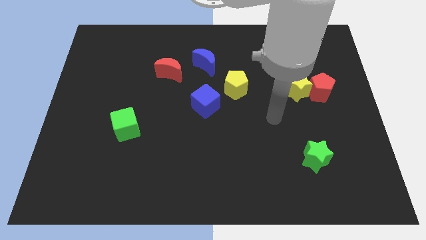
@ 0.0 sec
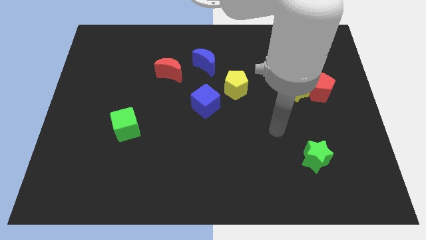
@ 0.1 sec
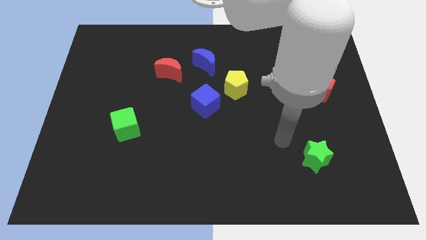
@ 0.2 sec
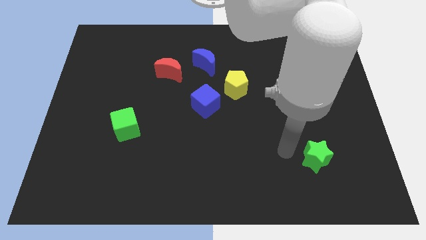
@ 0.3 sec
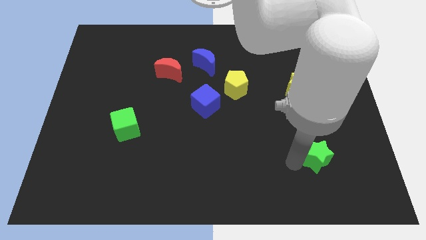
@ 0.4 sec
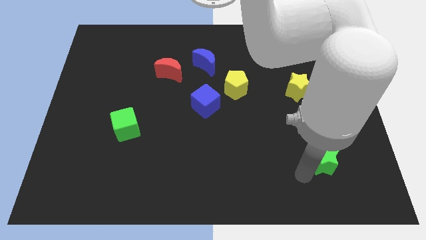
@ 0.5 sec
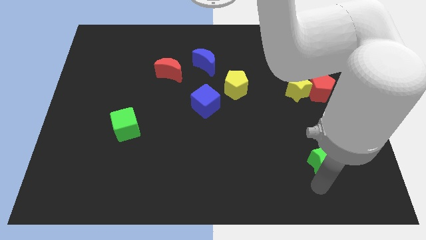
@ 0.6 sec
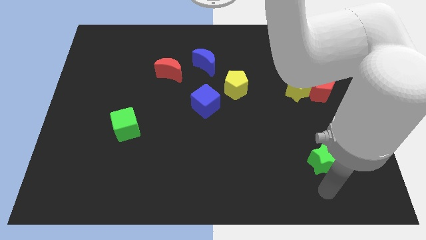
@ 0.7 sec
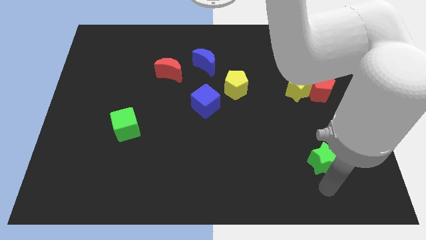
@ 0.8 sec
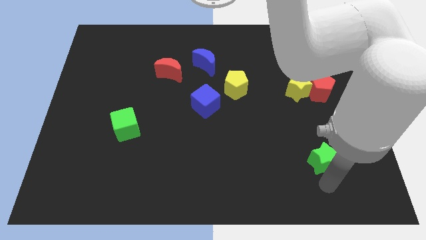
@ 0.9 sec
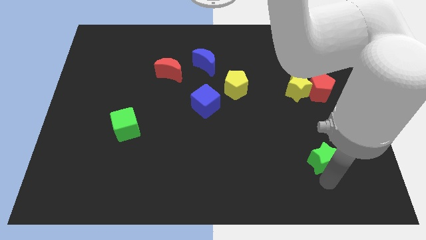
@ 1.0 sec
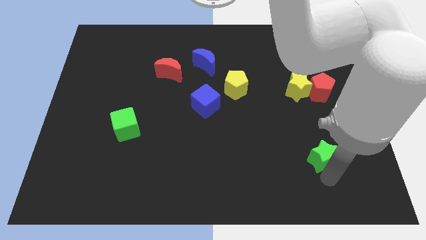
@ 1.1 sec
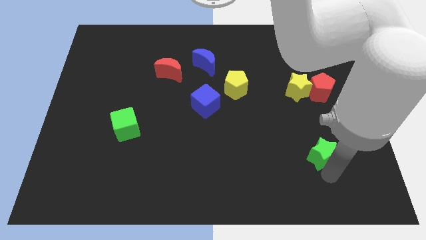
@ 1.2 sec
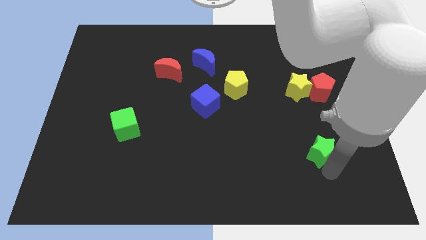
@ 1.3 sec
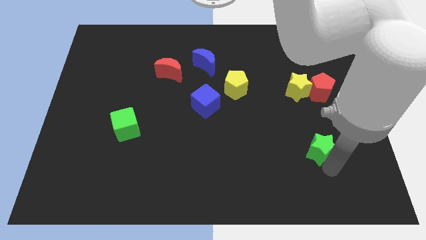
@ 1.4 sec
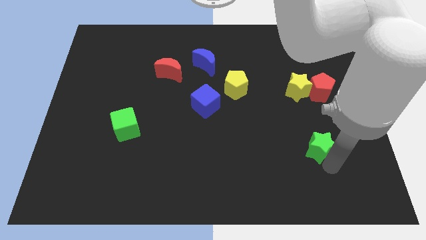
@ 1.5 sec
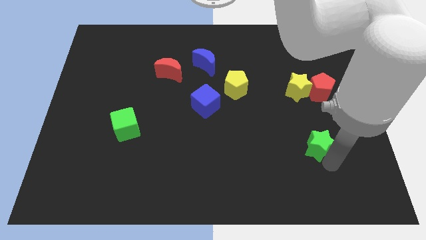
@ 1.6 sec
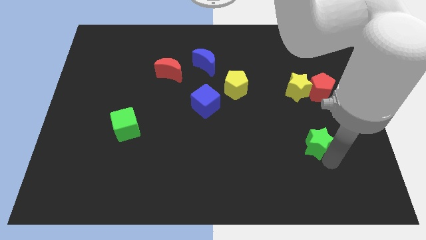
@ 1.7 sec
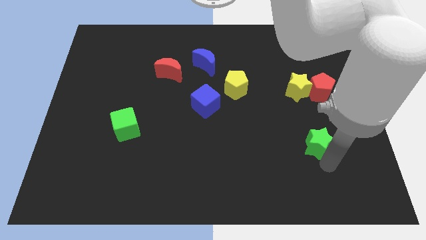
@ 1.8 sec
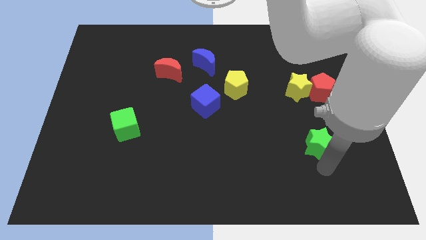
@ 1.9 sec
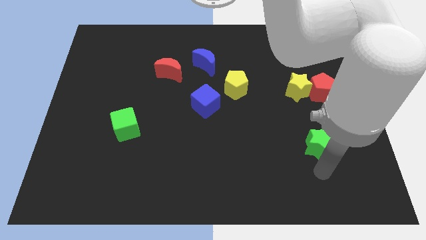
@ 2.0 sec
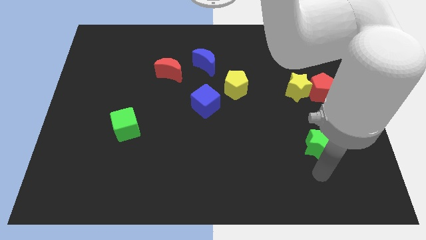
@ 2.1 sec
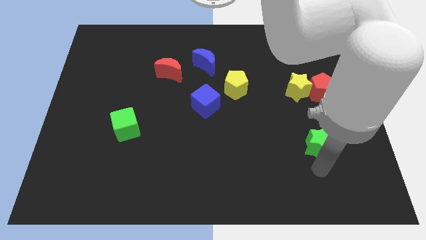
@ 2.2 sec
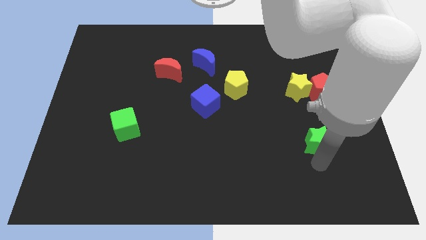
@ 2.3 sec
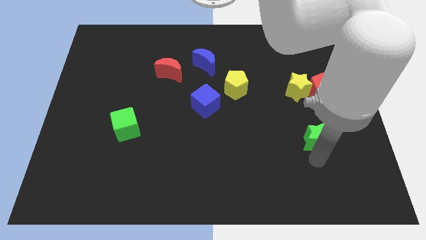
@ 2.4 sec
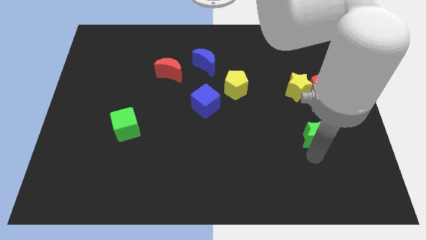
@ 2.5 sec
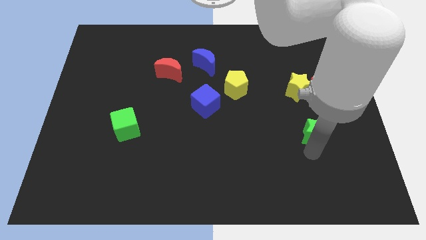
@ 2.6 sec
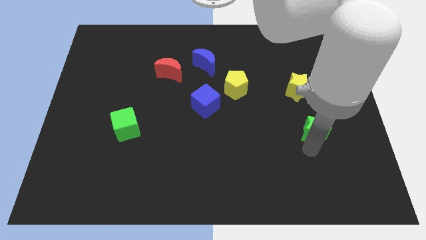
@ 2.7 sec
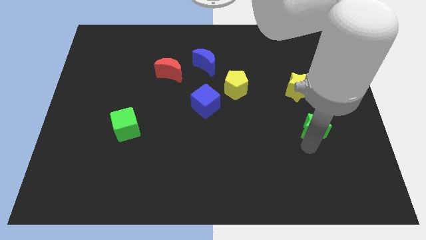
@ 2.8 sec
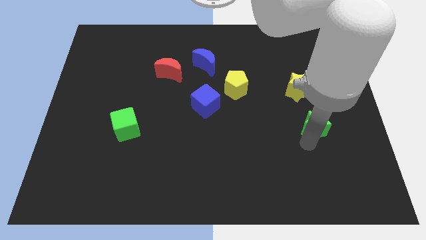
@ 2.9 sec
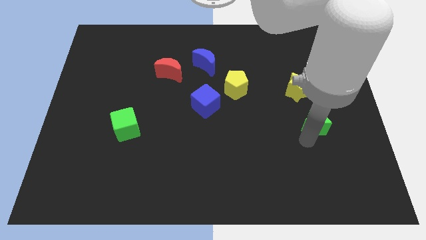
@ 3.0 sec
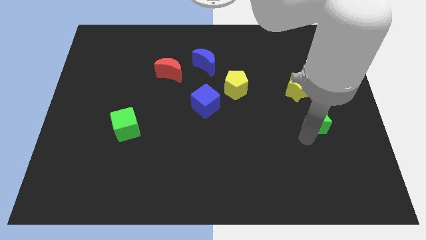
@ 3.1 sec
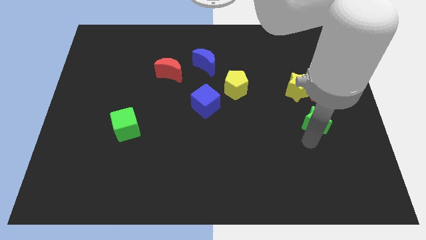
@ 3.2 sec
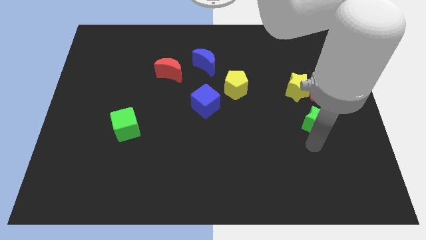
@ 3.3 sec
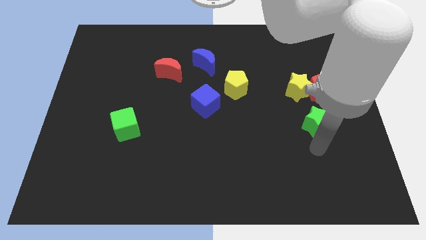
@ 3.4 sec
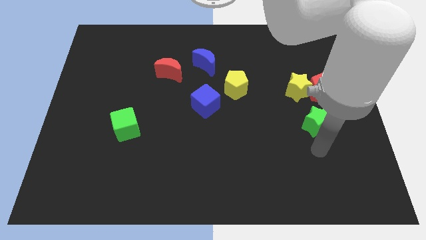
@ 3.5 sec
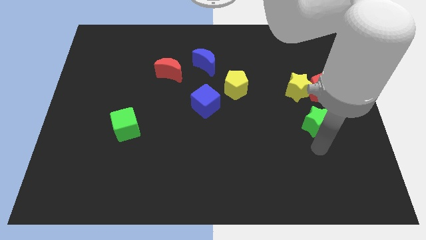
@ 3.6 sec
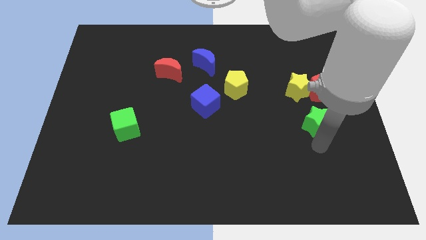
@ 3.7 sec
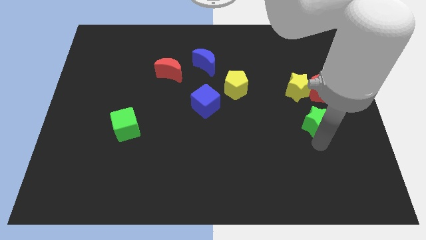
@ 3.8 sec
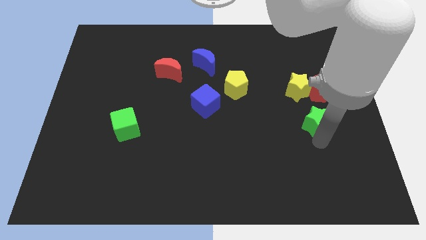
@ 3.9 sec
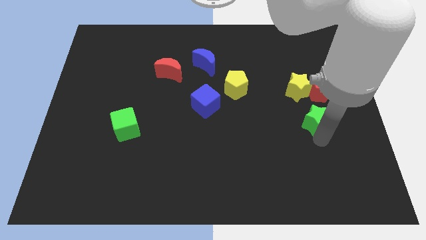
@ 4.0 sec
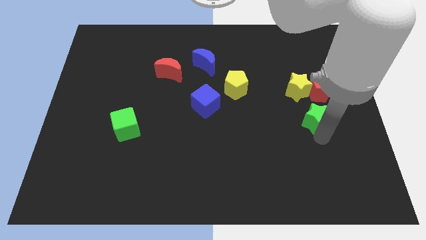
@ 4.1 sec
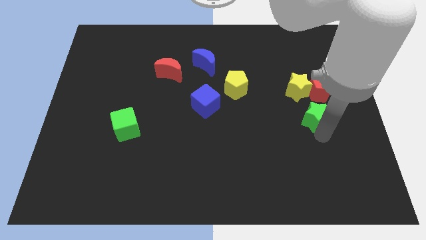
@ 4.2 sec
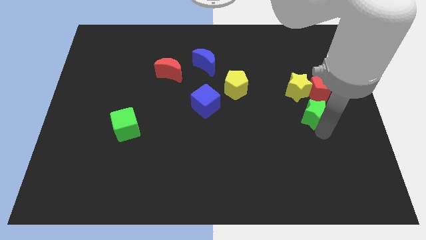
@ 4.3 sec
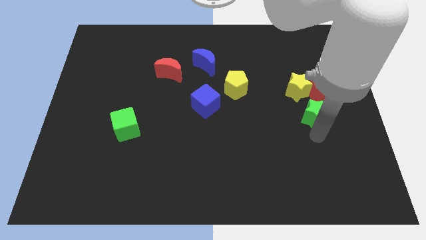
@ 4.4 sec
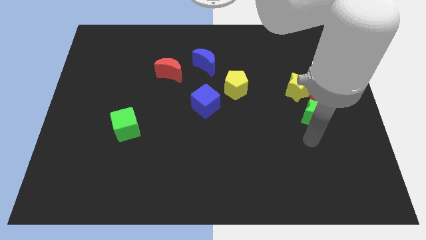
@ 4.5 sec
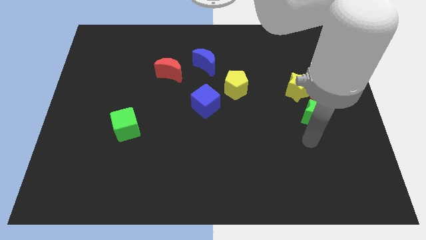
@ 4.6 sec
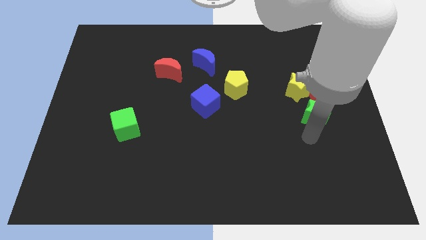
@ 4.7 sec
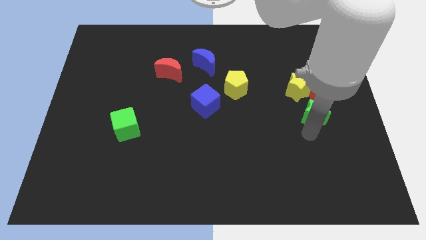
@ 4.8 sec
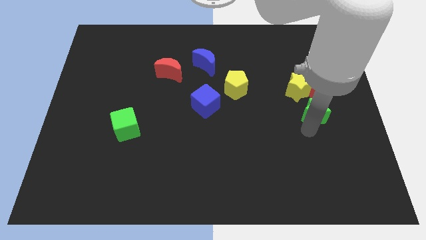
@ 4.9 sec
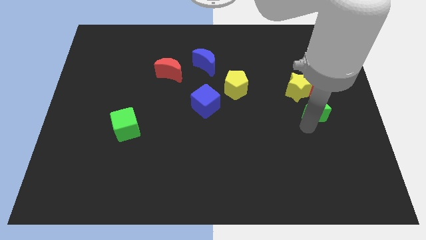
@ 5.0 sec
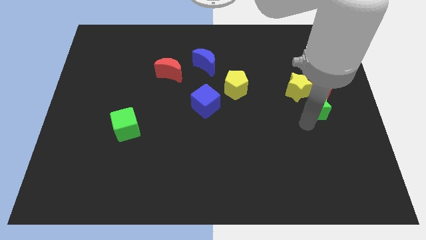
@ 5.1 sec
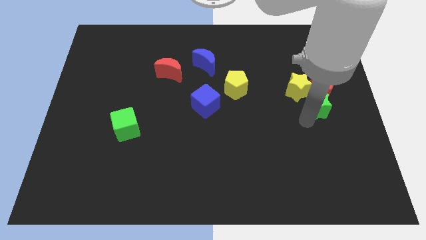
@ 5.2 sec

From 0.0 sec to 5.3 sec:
put the green star towards the red pentagon

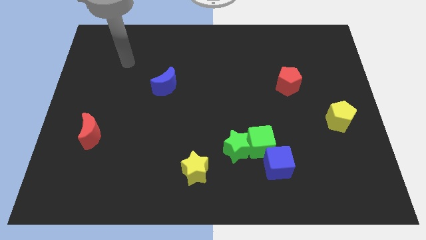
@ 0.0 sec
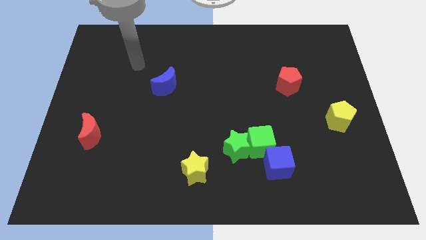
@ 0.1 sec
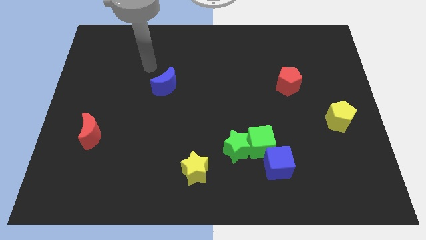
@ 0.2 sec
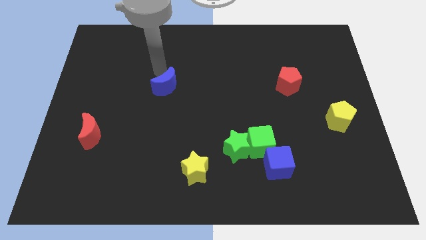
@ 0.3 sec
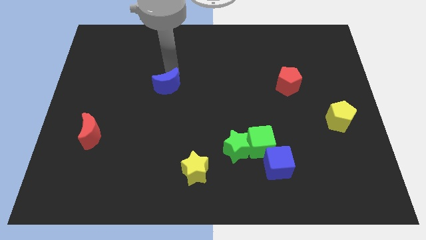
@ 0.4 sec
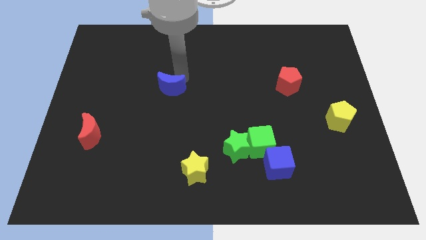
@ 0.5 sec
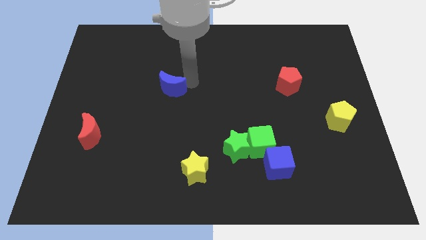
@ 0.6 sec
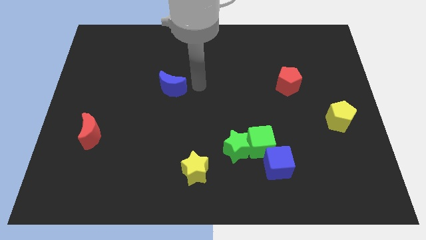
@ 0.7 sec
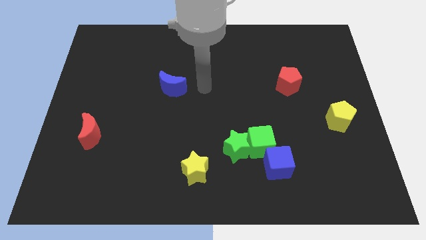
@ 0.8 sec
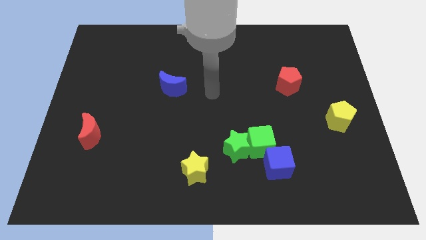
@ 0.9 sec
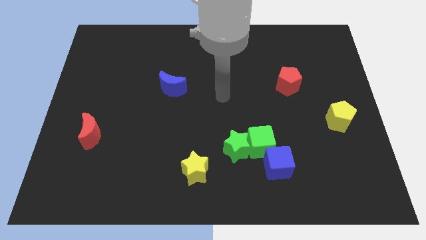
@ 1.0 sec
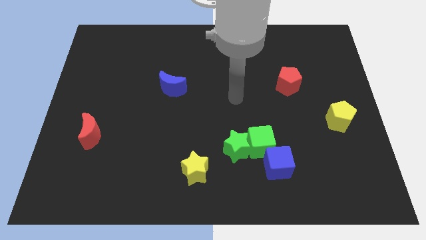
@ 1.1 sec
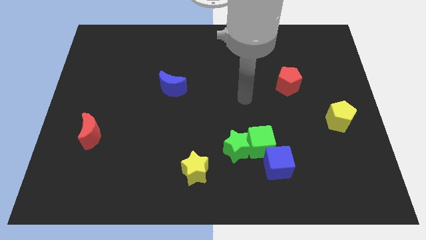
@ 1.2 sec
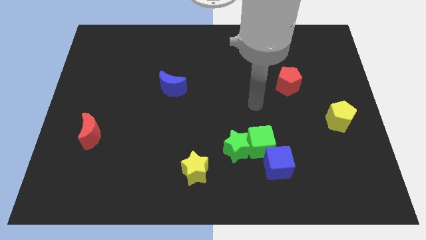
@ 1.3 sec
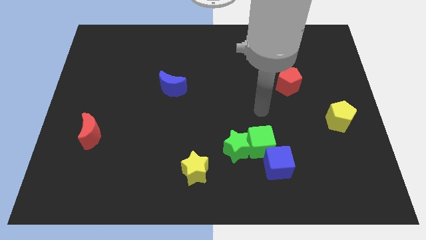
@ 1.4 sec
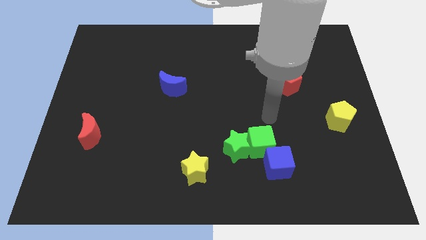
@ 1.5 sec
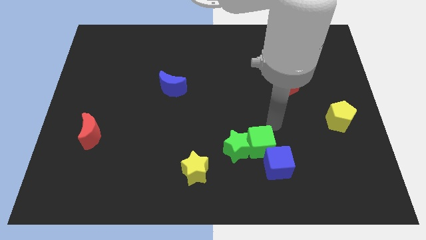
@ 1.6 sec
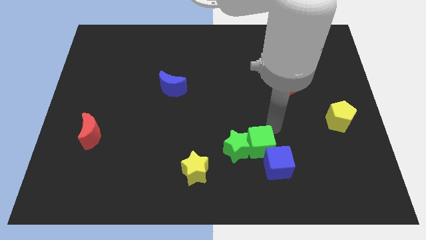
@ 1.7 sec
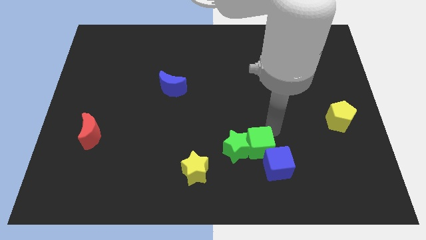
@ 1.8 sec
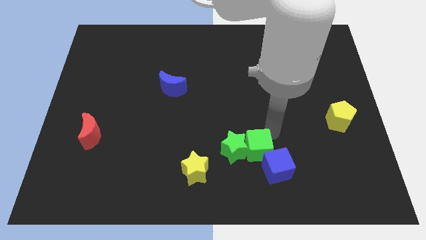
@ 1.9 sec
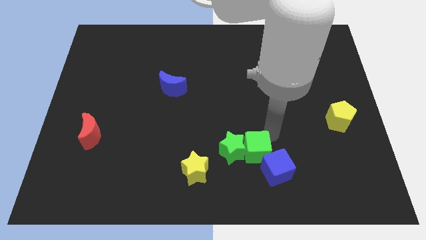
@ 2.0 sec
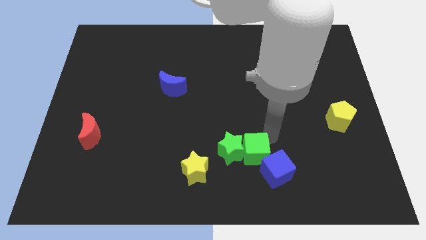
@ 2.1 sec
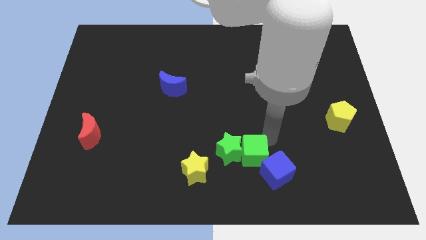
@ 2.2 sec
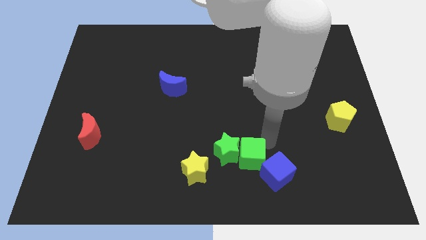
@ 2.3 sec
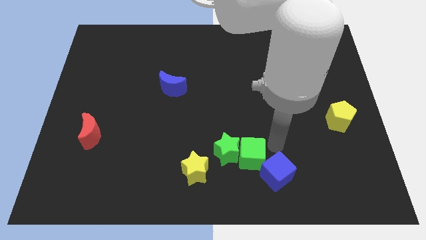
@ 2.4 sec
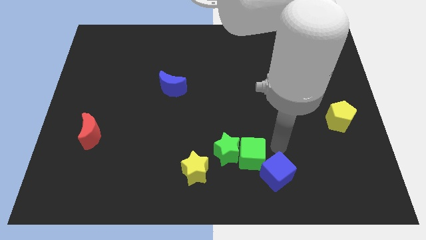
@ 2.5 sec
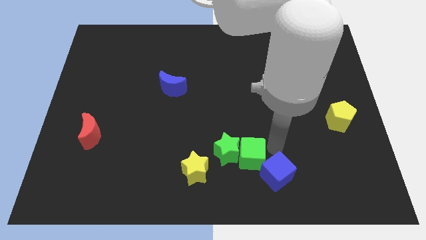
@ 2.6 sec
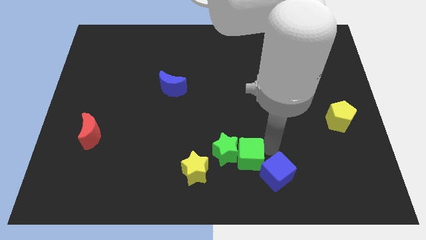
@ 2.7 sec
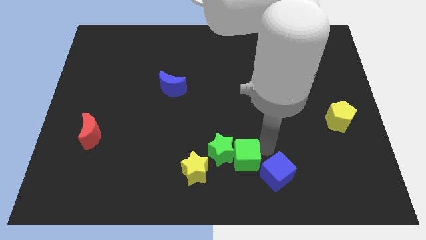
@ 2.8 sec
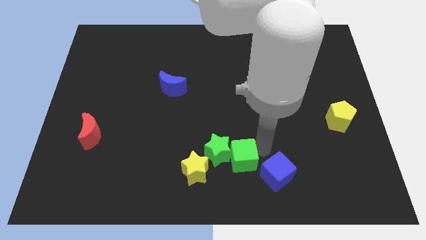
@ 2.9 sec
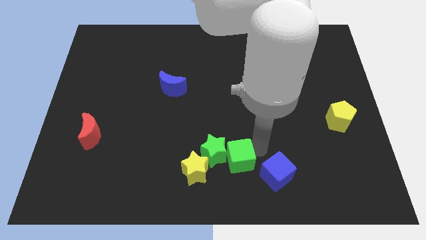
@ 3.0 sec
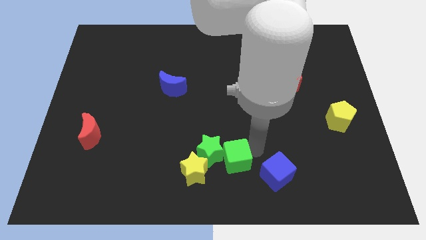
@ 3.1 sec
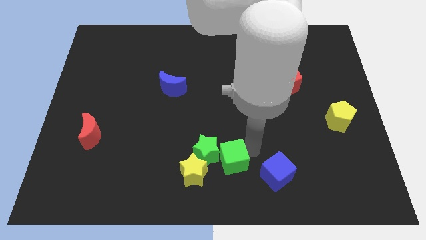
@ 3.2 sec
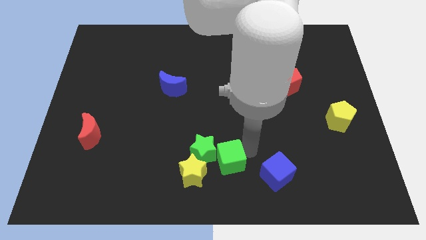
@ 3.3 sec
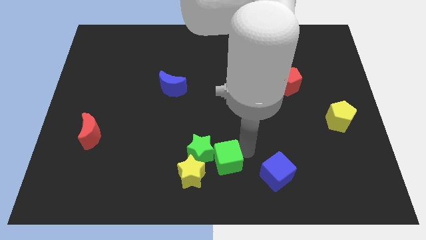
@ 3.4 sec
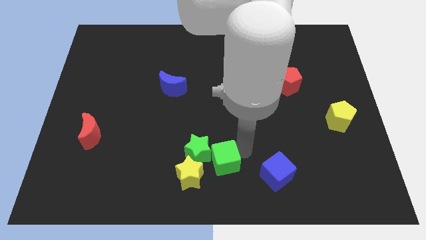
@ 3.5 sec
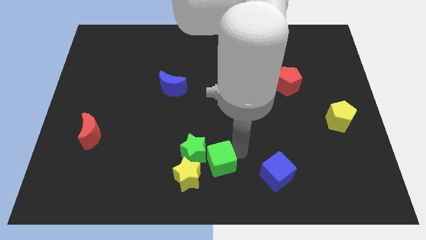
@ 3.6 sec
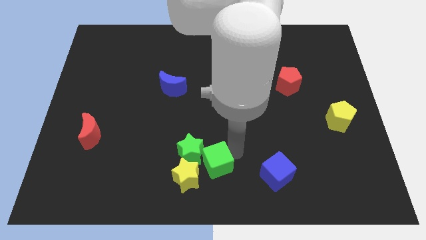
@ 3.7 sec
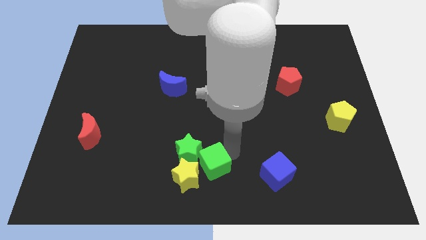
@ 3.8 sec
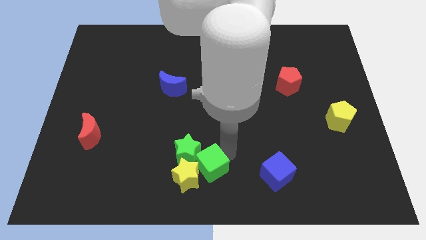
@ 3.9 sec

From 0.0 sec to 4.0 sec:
push the green cube close to the yellow star
